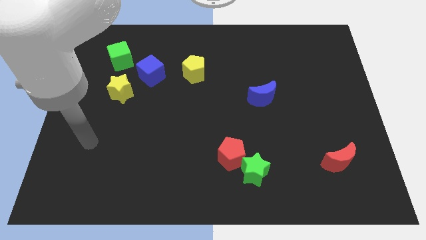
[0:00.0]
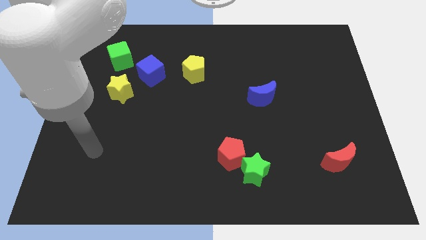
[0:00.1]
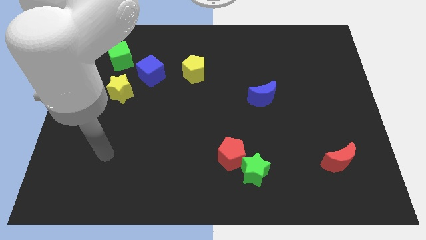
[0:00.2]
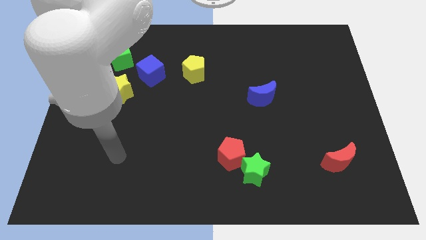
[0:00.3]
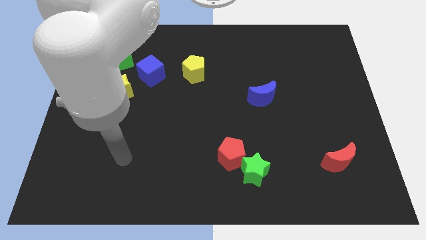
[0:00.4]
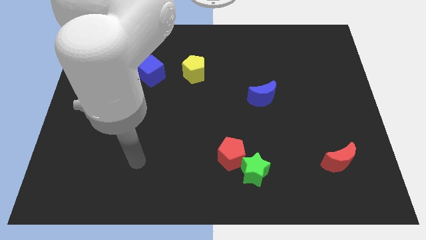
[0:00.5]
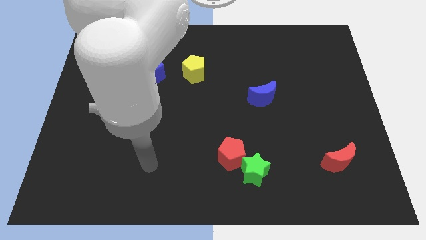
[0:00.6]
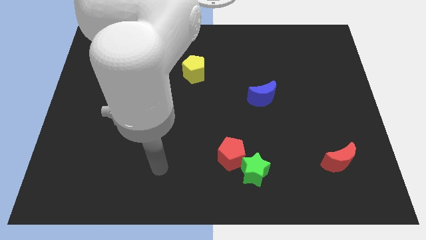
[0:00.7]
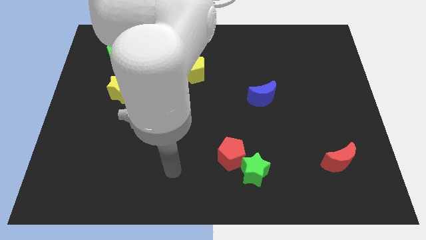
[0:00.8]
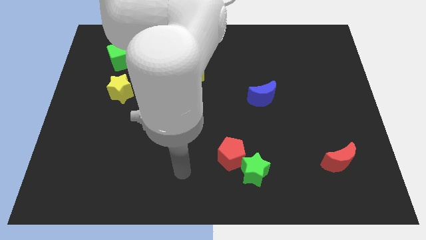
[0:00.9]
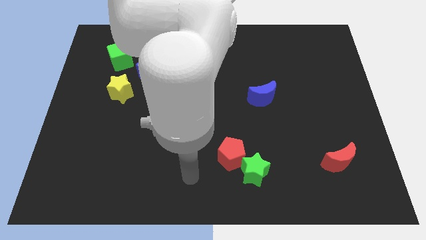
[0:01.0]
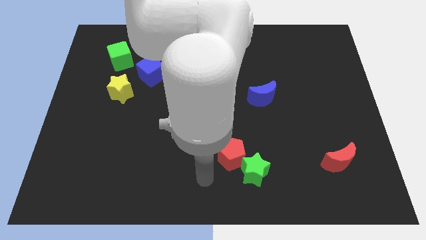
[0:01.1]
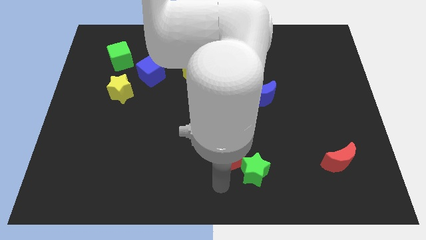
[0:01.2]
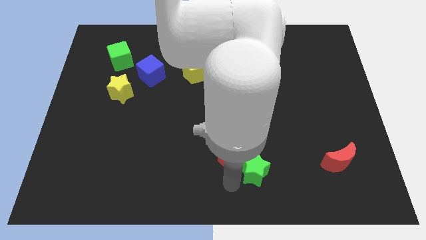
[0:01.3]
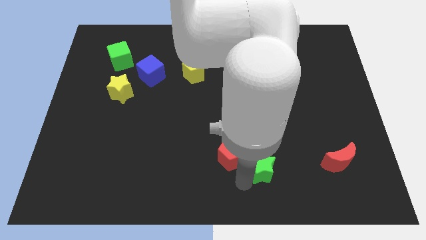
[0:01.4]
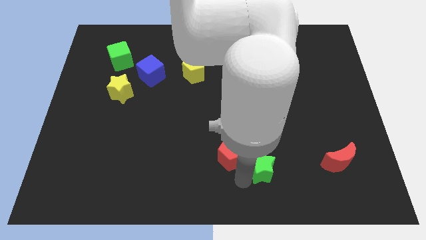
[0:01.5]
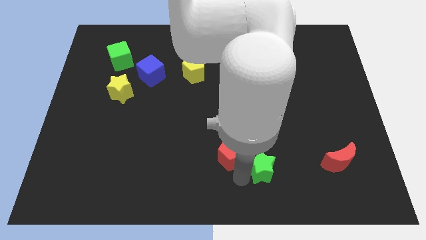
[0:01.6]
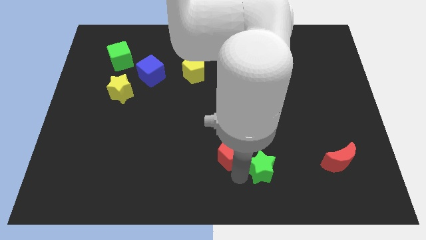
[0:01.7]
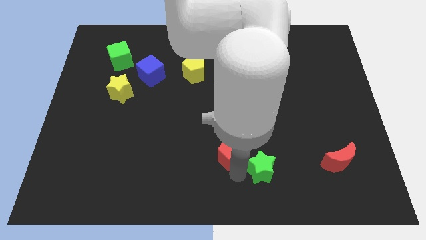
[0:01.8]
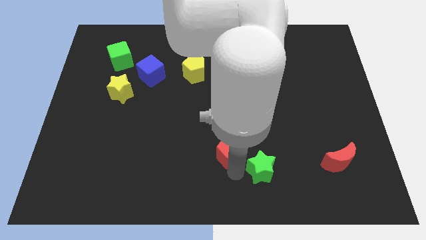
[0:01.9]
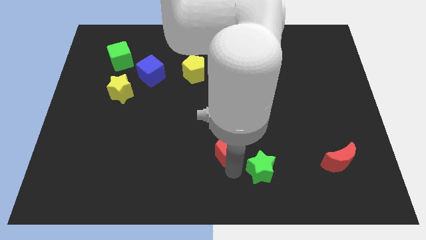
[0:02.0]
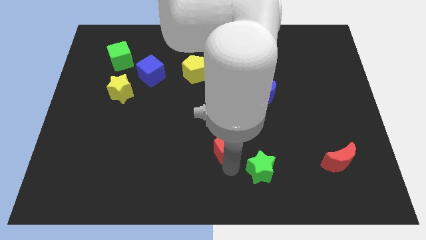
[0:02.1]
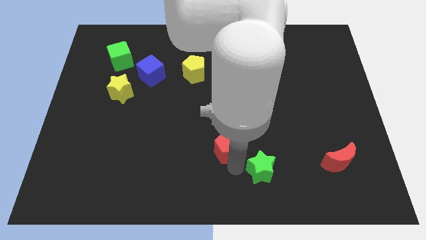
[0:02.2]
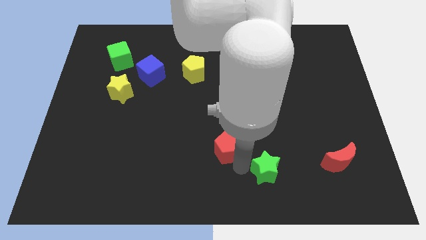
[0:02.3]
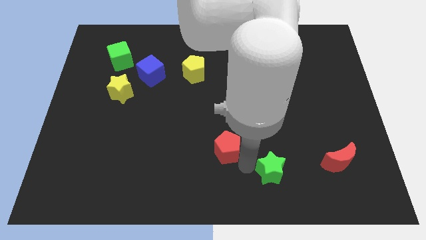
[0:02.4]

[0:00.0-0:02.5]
separate the red pentagon from the green star

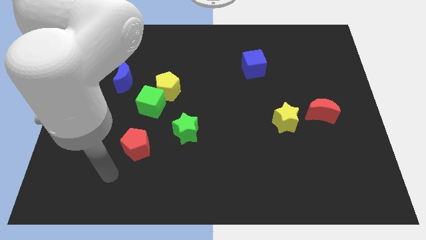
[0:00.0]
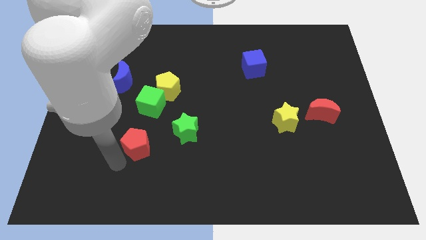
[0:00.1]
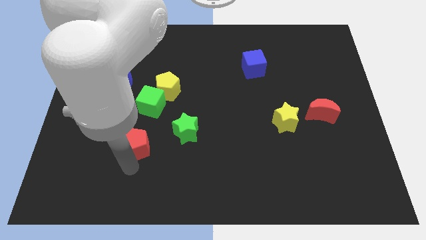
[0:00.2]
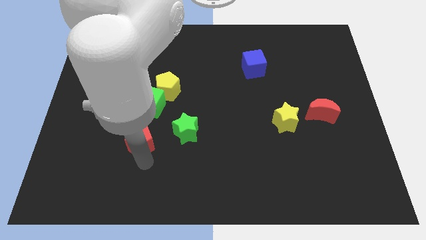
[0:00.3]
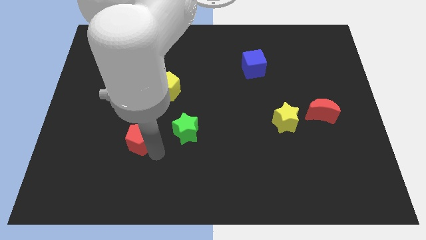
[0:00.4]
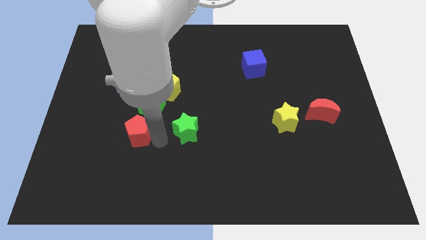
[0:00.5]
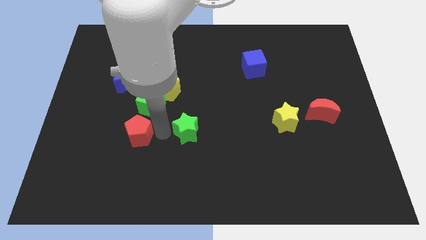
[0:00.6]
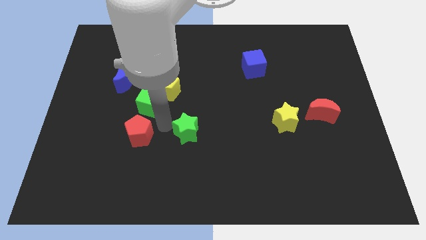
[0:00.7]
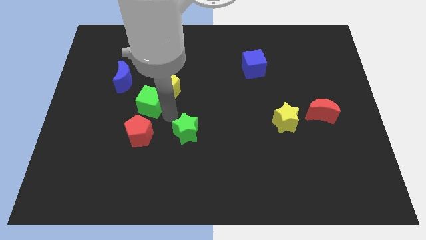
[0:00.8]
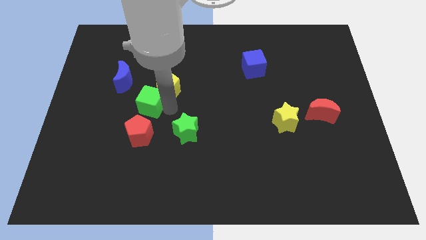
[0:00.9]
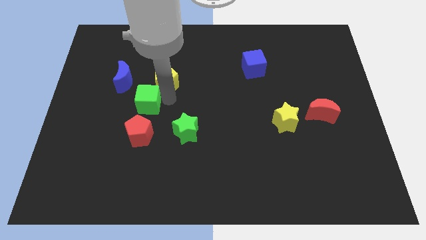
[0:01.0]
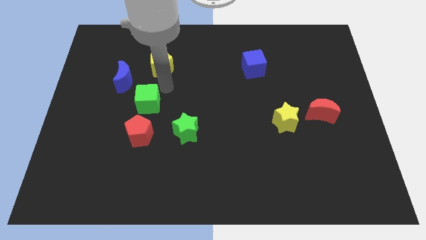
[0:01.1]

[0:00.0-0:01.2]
move the green cube away from the yellow pentagon

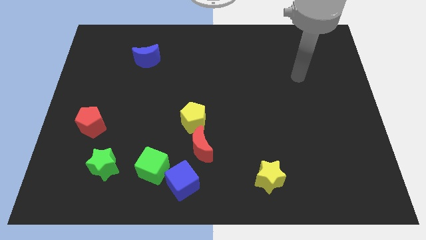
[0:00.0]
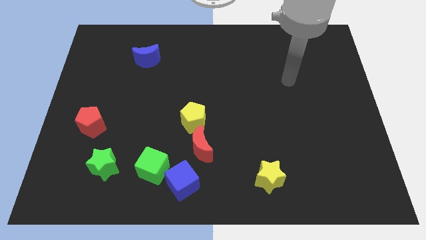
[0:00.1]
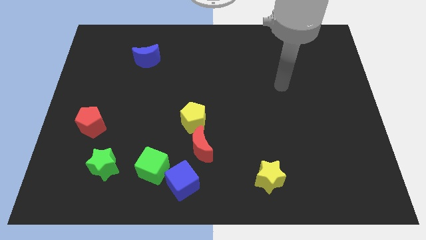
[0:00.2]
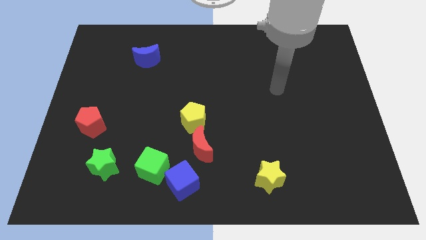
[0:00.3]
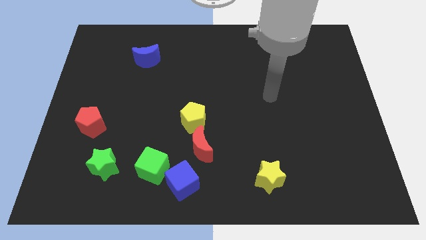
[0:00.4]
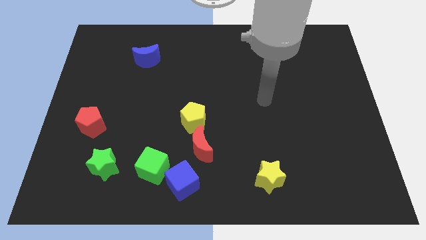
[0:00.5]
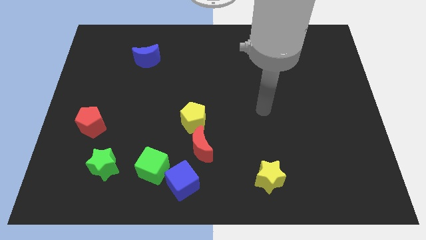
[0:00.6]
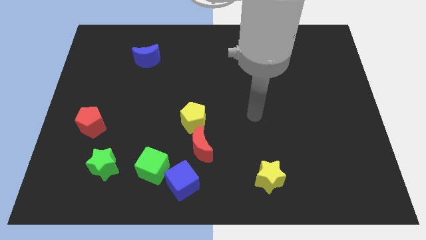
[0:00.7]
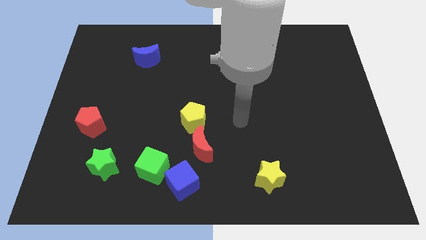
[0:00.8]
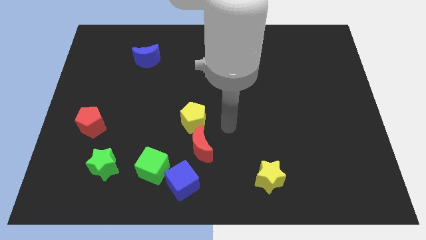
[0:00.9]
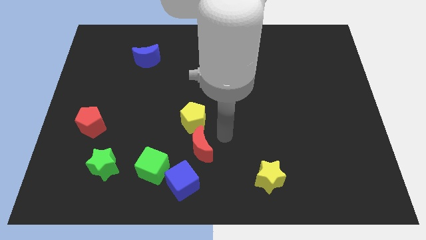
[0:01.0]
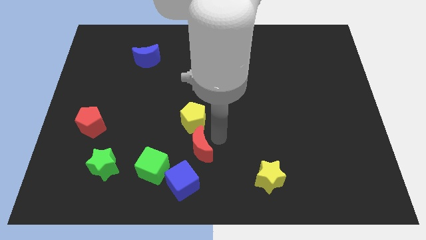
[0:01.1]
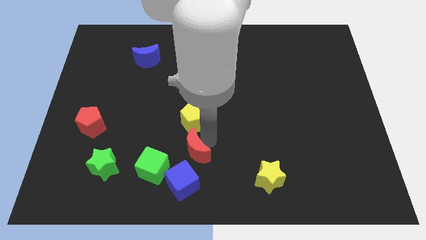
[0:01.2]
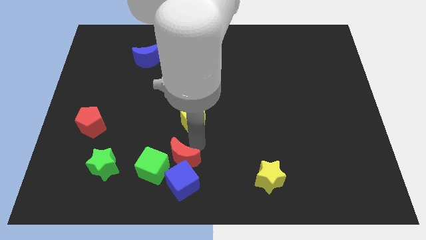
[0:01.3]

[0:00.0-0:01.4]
pull the yellow pentagon apart from the red moon

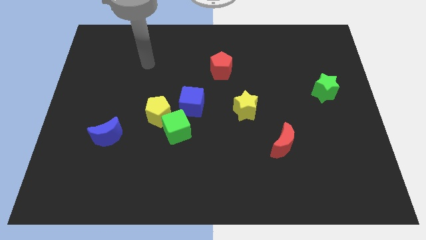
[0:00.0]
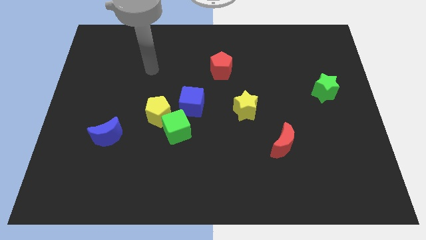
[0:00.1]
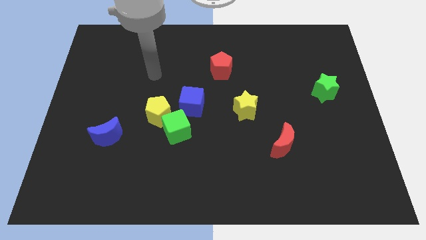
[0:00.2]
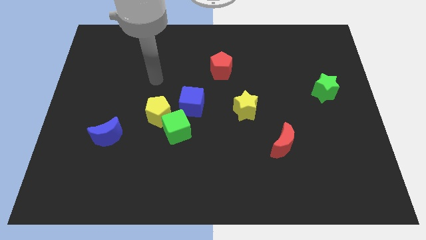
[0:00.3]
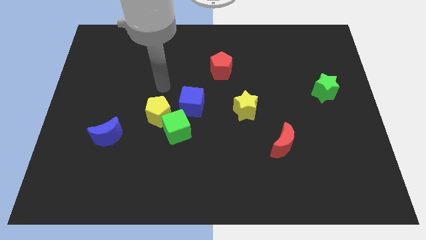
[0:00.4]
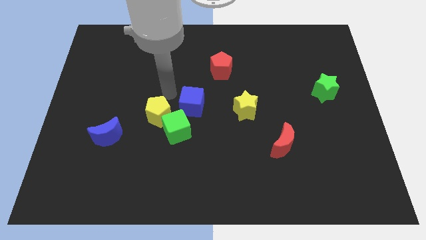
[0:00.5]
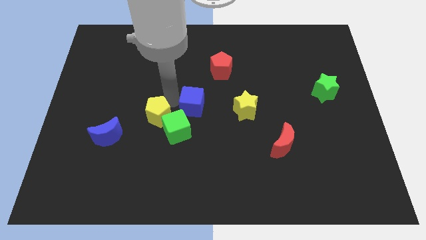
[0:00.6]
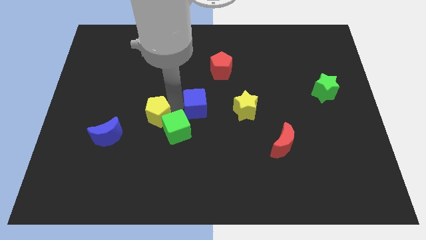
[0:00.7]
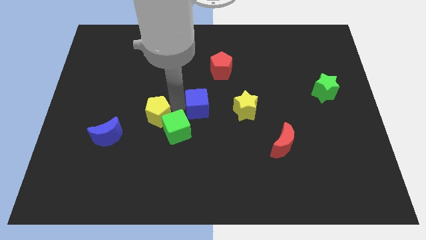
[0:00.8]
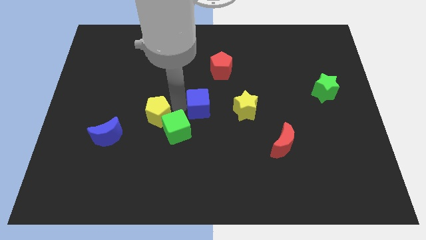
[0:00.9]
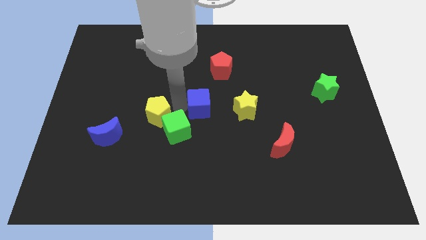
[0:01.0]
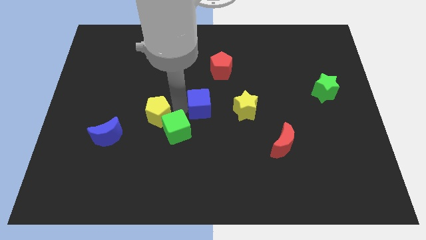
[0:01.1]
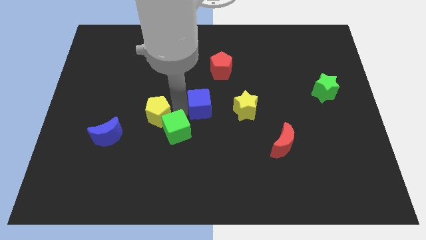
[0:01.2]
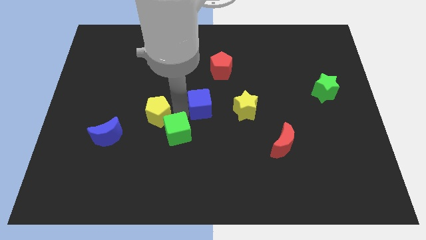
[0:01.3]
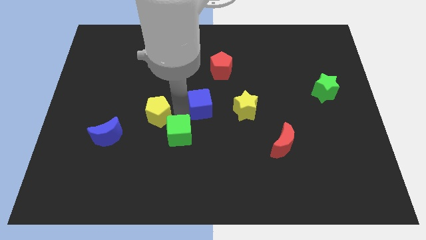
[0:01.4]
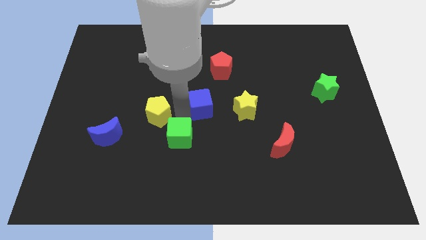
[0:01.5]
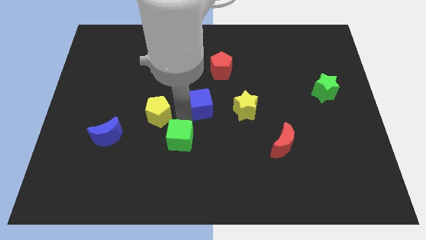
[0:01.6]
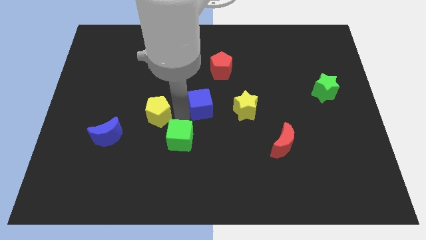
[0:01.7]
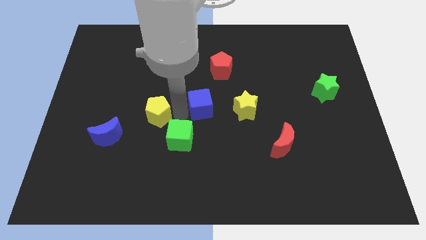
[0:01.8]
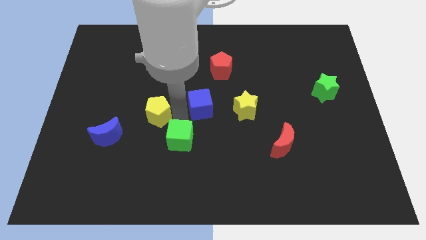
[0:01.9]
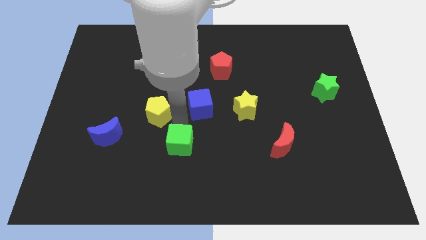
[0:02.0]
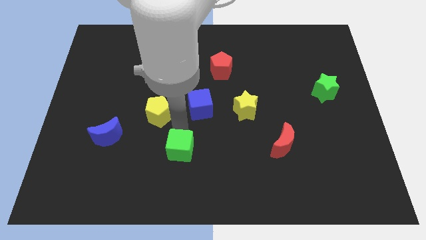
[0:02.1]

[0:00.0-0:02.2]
pull the green cube apart from the yellow pentagon and blue cube

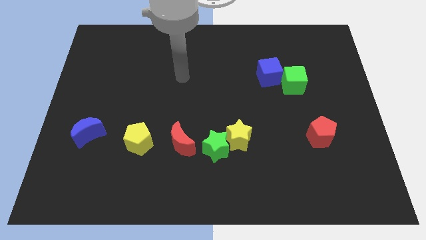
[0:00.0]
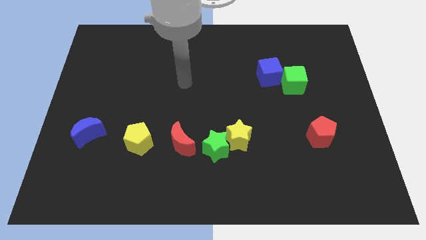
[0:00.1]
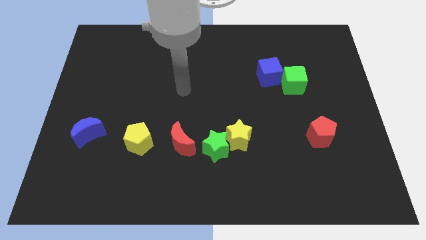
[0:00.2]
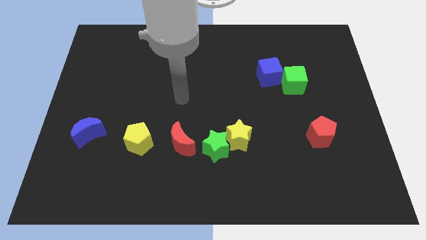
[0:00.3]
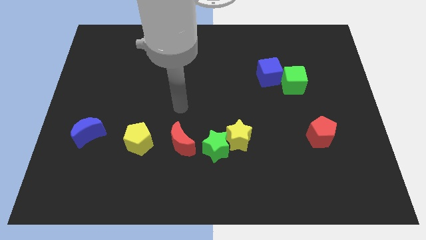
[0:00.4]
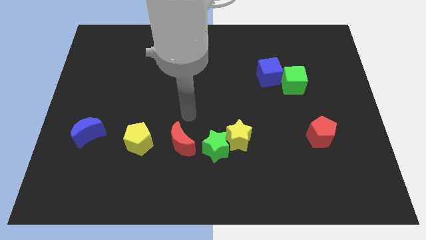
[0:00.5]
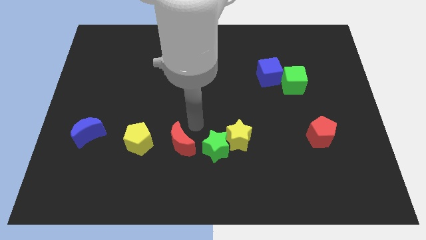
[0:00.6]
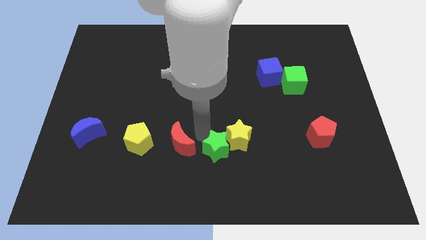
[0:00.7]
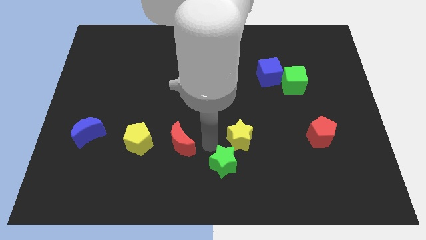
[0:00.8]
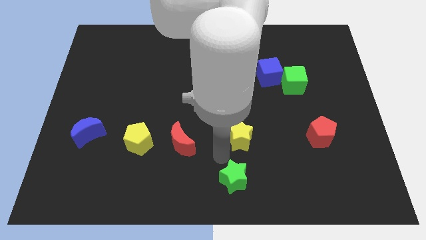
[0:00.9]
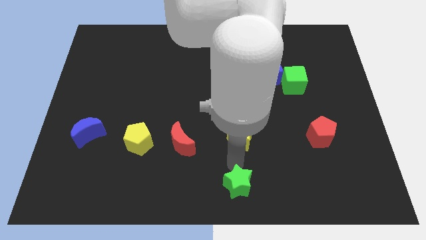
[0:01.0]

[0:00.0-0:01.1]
pull the yellow star apart from the green star

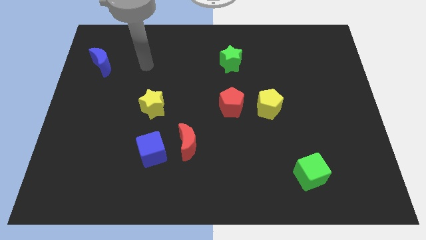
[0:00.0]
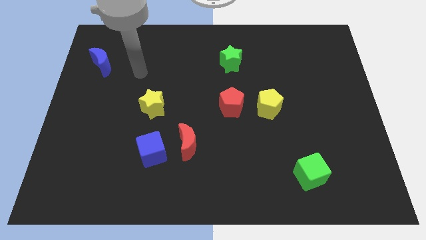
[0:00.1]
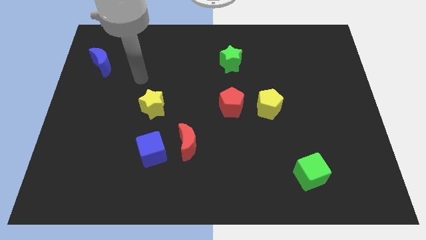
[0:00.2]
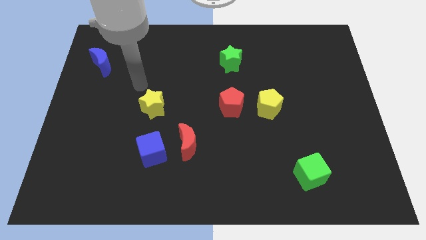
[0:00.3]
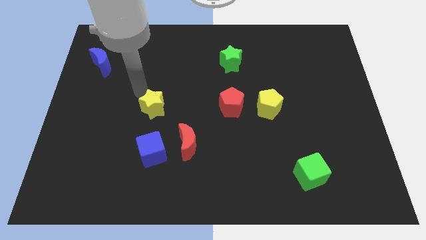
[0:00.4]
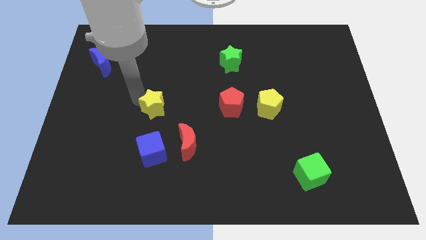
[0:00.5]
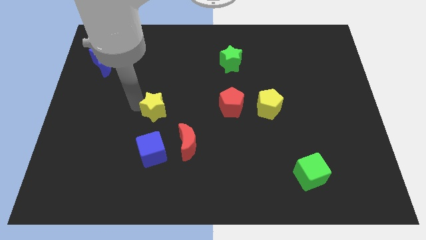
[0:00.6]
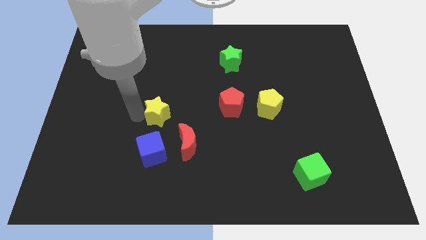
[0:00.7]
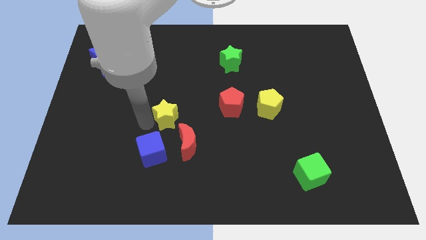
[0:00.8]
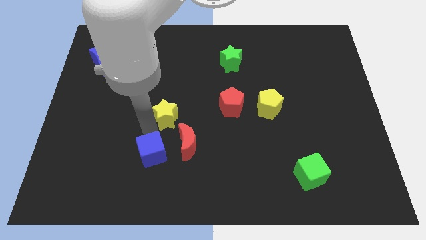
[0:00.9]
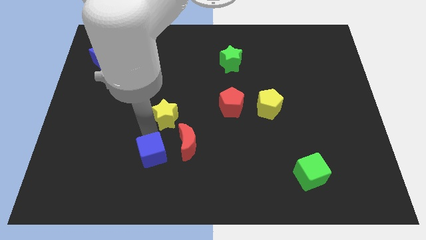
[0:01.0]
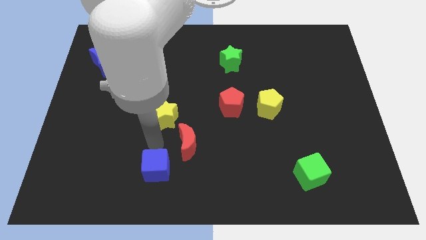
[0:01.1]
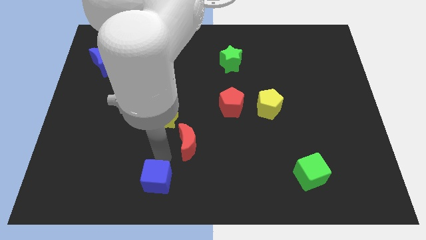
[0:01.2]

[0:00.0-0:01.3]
pull the red moon apart from the blue cube
